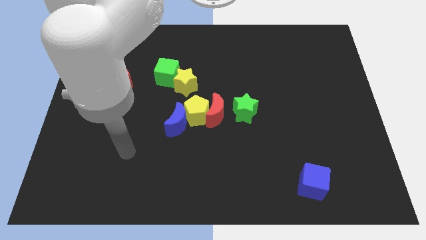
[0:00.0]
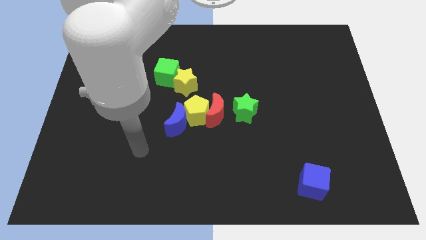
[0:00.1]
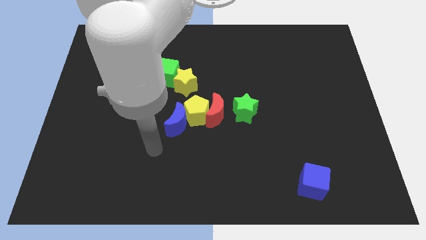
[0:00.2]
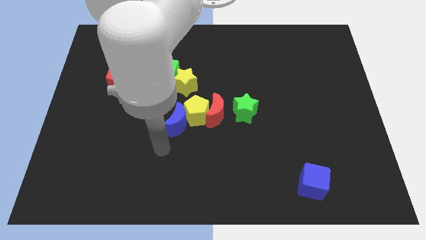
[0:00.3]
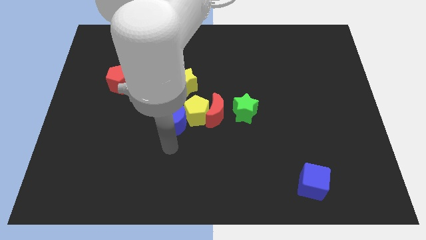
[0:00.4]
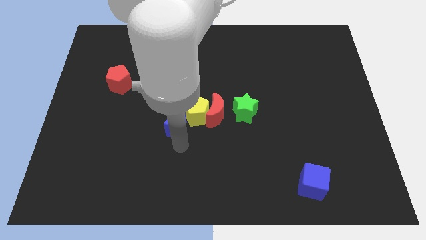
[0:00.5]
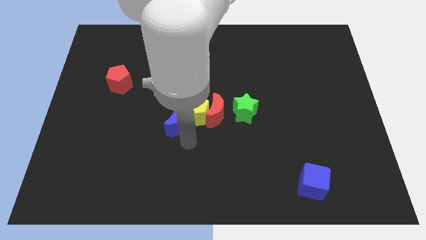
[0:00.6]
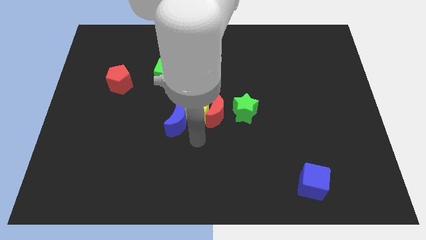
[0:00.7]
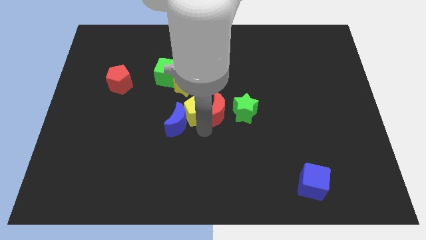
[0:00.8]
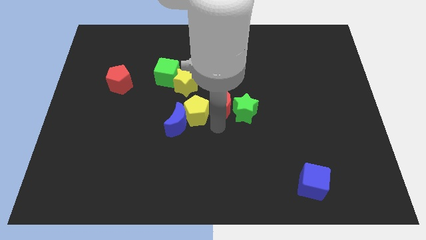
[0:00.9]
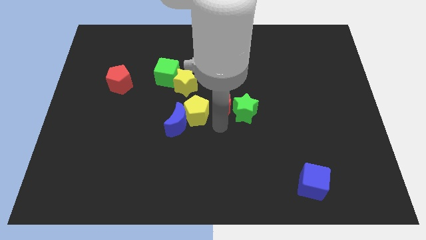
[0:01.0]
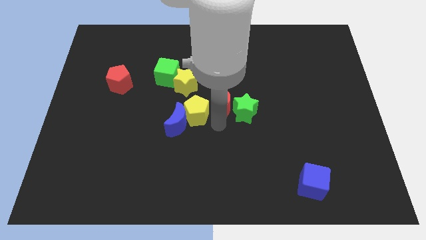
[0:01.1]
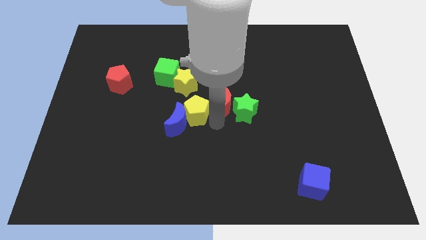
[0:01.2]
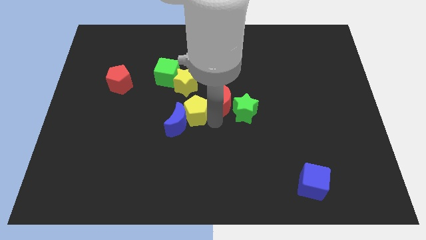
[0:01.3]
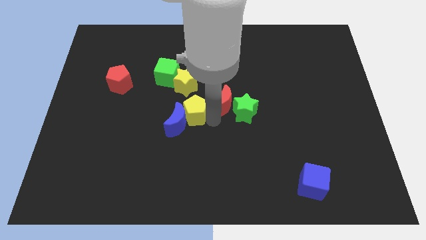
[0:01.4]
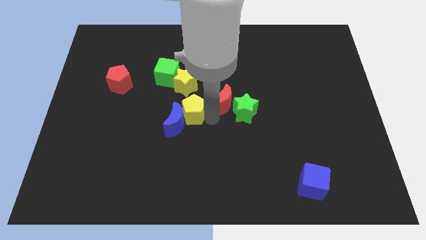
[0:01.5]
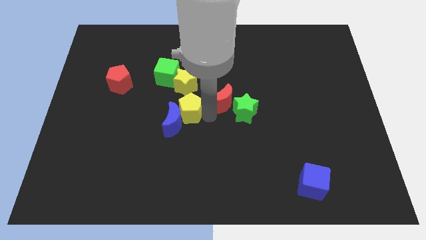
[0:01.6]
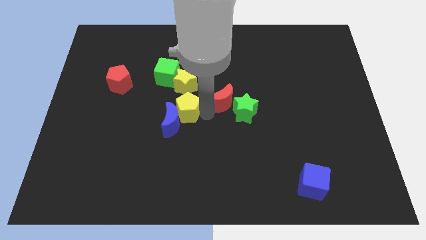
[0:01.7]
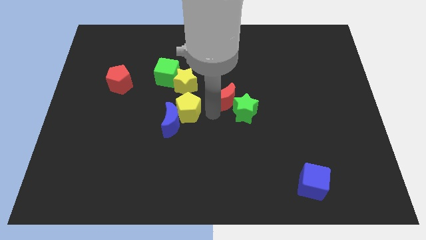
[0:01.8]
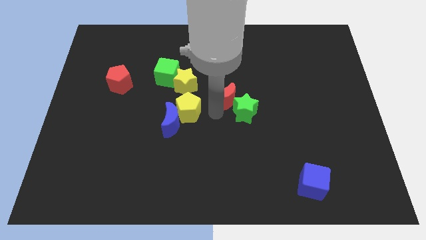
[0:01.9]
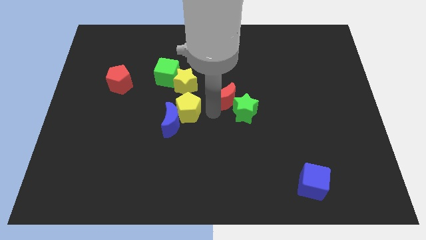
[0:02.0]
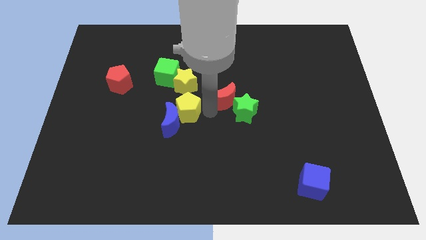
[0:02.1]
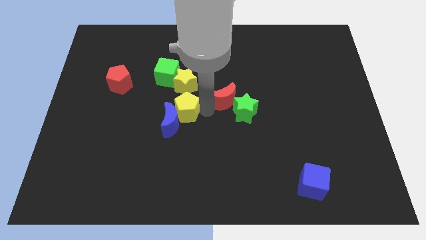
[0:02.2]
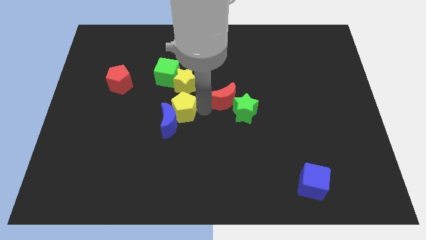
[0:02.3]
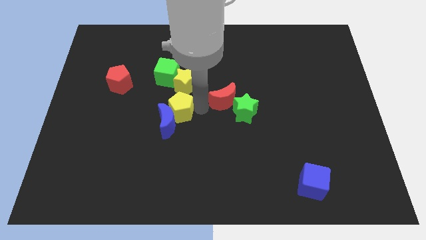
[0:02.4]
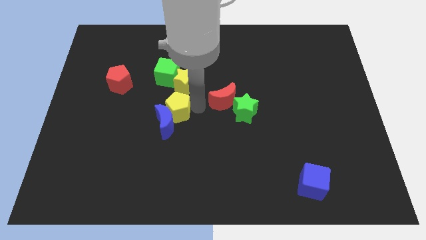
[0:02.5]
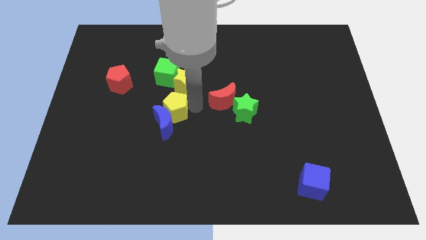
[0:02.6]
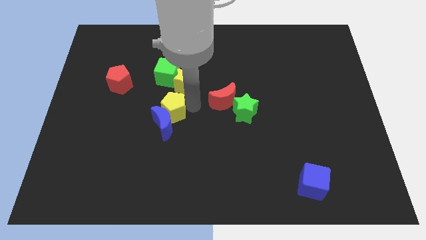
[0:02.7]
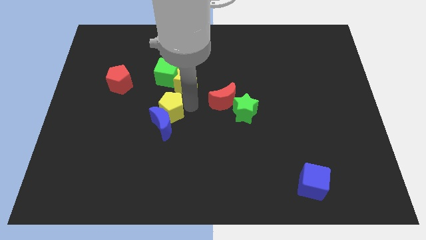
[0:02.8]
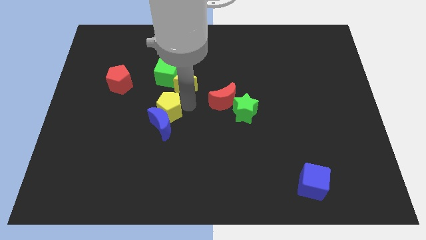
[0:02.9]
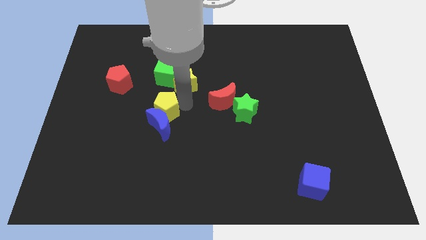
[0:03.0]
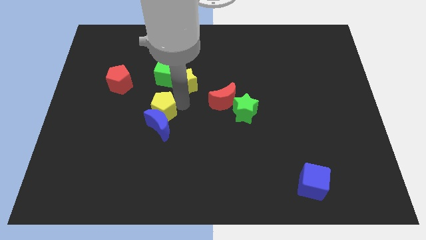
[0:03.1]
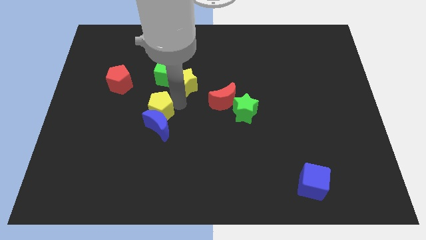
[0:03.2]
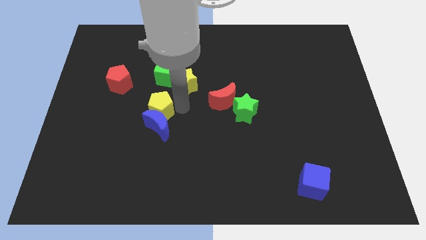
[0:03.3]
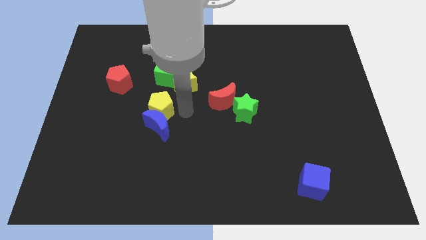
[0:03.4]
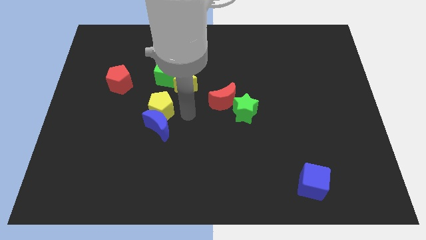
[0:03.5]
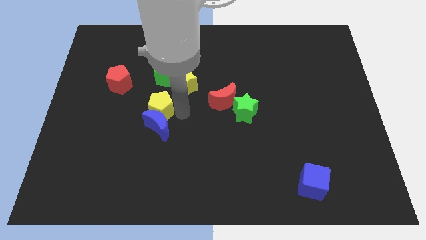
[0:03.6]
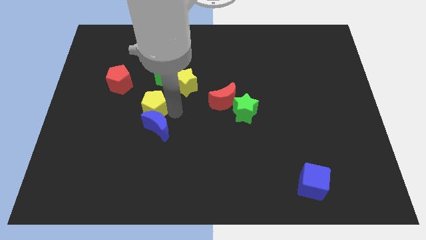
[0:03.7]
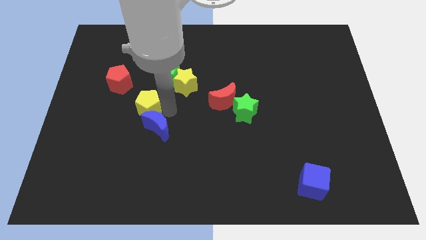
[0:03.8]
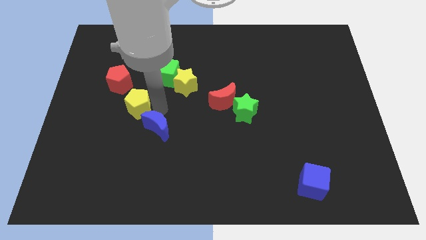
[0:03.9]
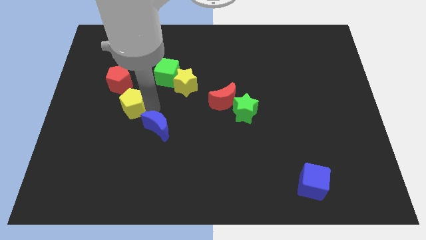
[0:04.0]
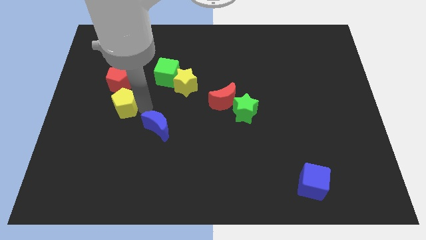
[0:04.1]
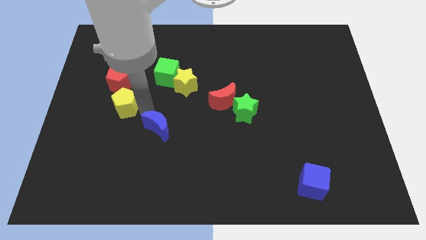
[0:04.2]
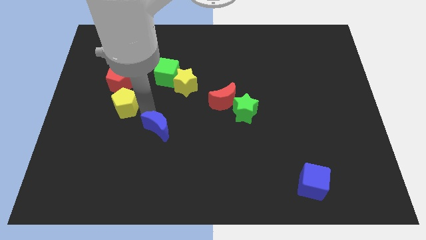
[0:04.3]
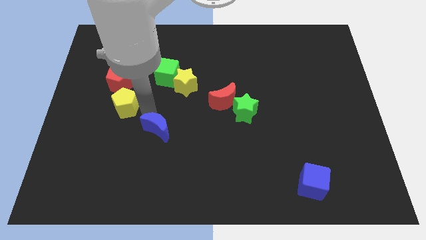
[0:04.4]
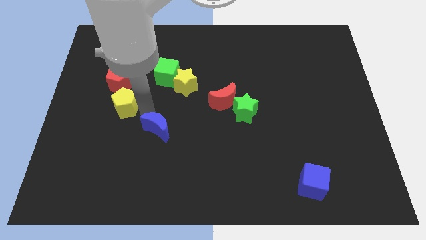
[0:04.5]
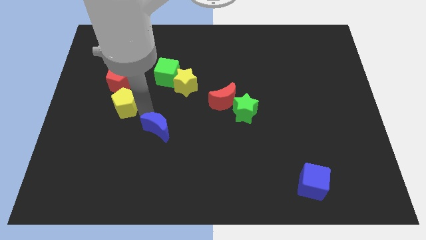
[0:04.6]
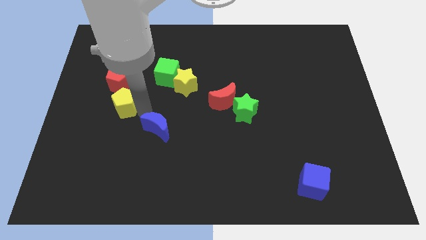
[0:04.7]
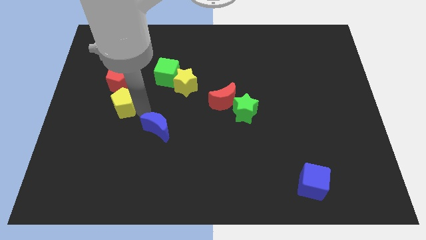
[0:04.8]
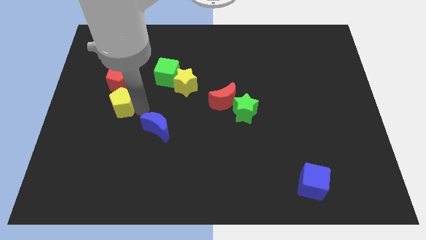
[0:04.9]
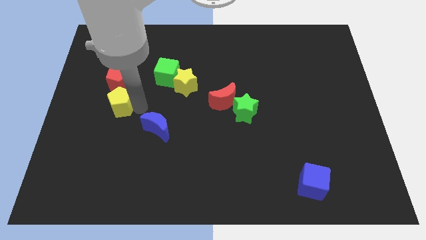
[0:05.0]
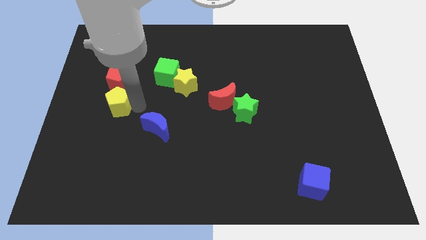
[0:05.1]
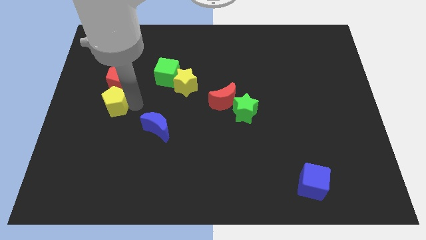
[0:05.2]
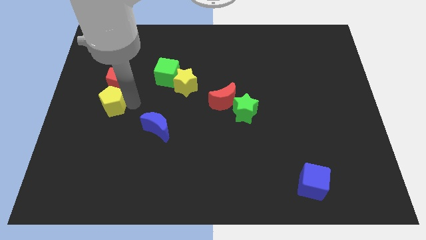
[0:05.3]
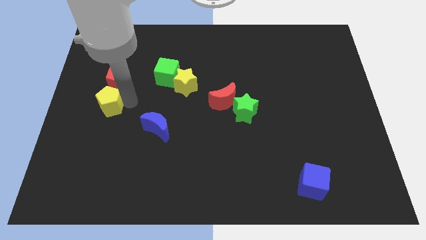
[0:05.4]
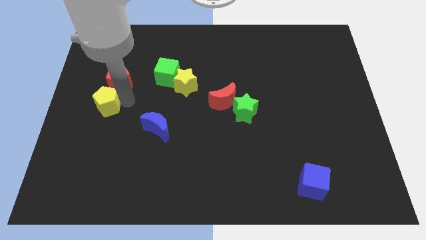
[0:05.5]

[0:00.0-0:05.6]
move the yellow pentagon to the left side
